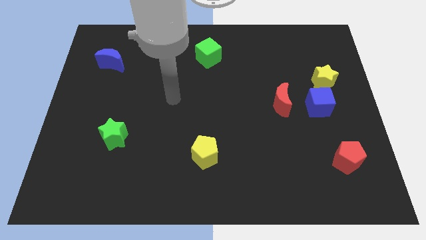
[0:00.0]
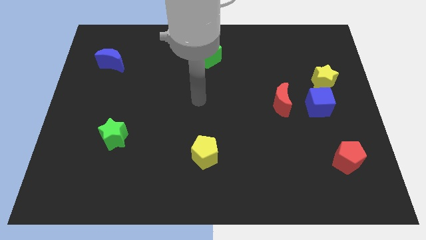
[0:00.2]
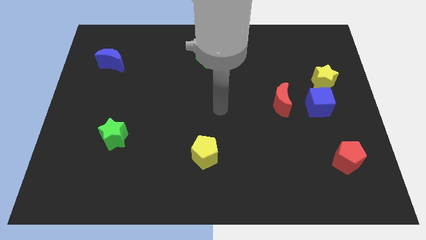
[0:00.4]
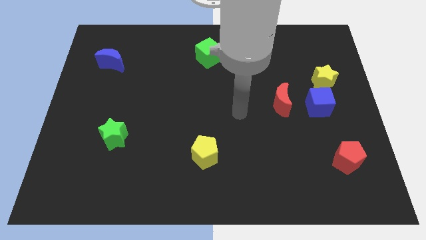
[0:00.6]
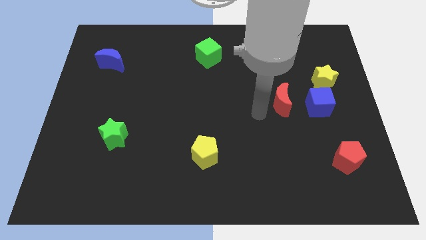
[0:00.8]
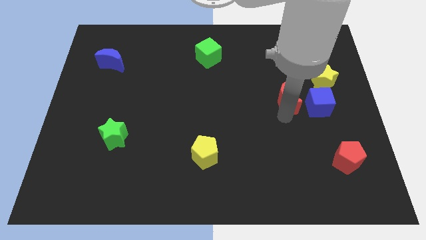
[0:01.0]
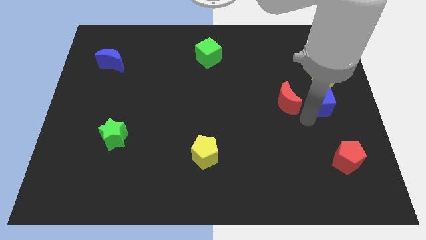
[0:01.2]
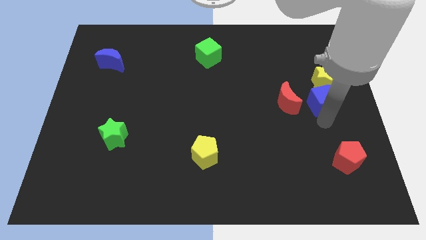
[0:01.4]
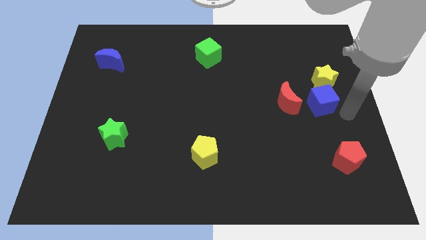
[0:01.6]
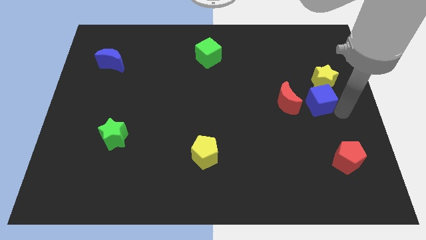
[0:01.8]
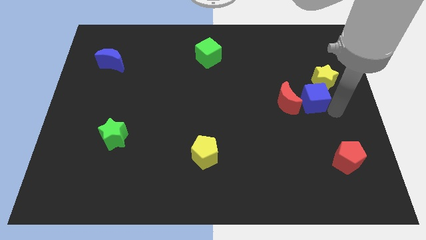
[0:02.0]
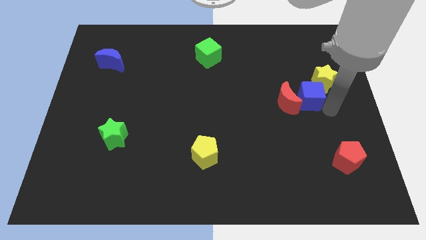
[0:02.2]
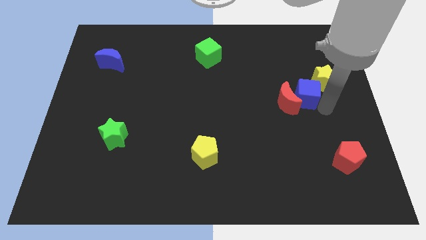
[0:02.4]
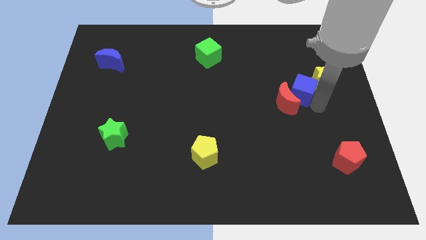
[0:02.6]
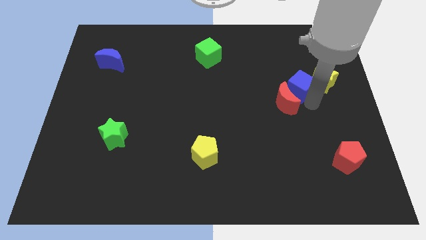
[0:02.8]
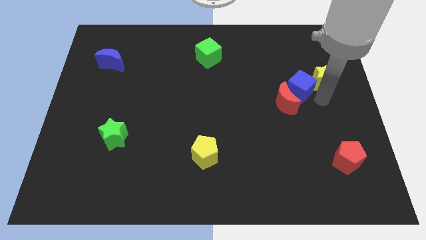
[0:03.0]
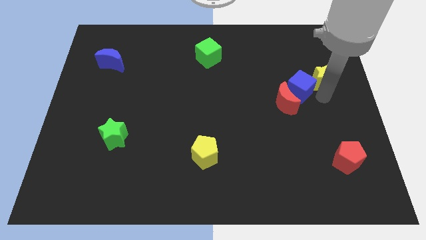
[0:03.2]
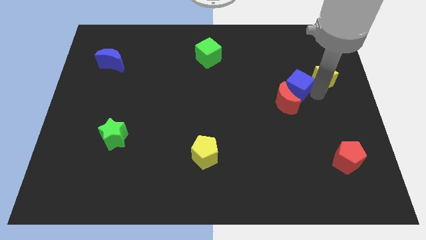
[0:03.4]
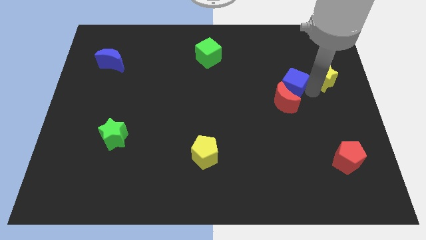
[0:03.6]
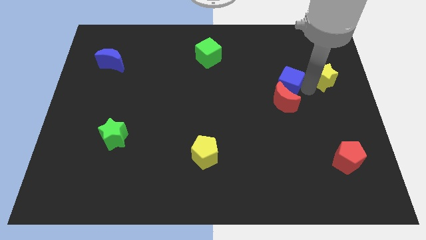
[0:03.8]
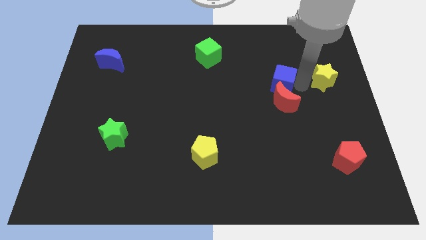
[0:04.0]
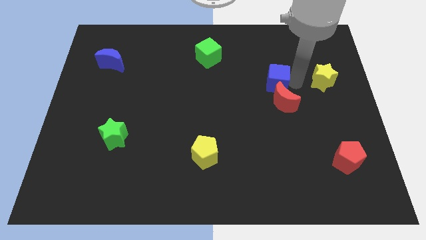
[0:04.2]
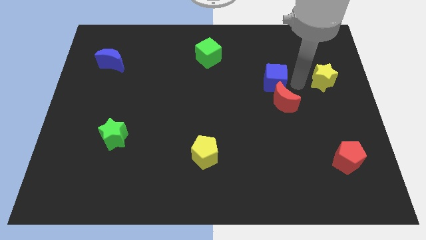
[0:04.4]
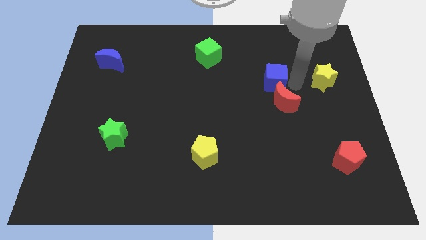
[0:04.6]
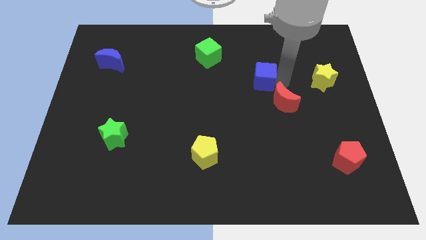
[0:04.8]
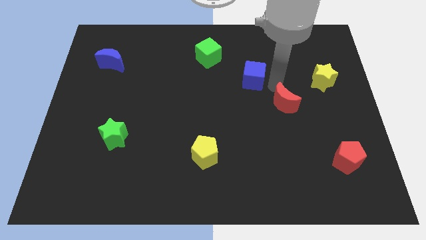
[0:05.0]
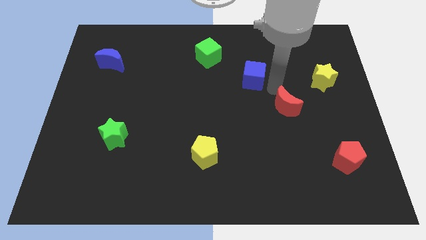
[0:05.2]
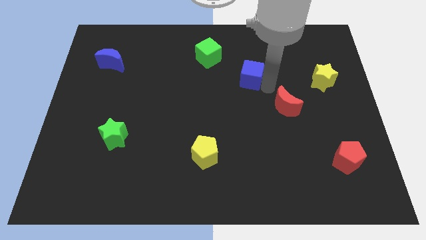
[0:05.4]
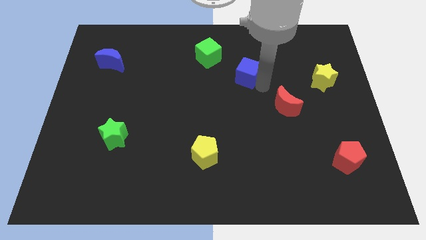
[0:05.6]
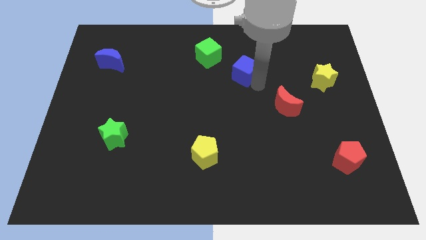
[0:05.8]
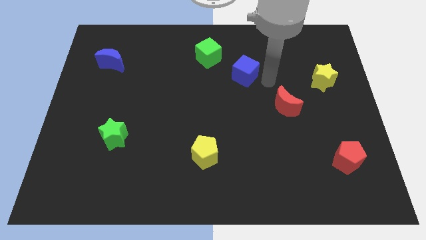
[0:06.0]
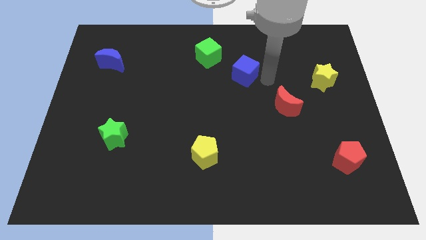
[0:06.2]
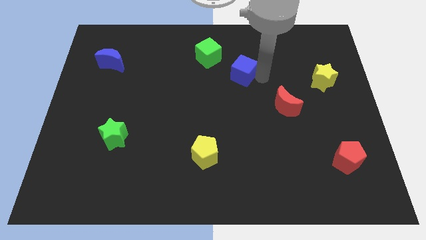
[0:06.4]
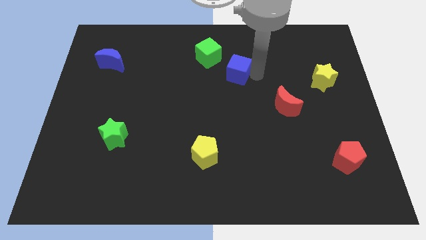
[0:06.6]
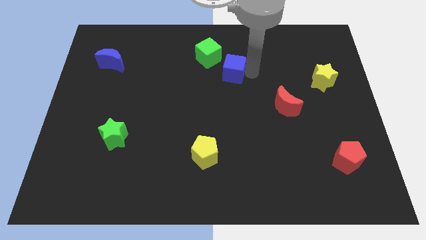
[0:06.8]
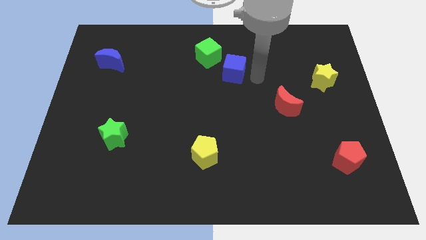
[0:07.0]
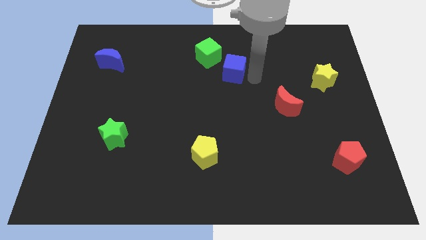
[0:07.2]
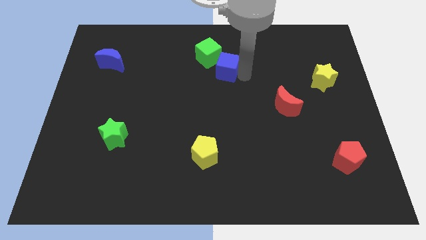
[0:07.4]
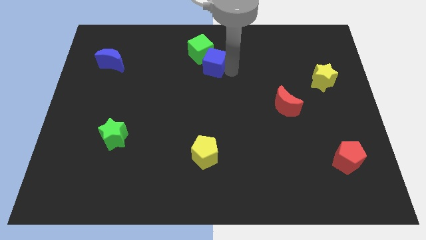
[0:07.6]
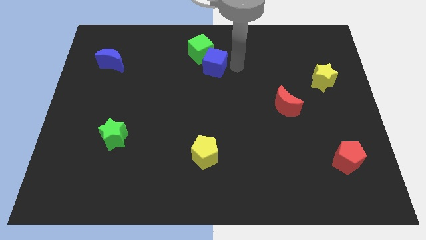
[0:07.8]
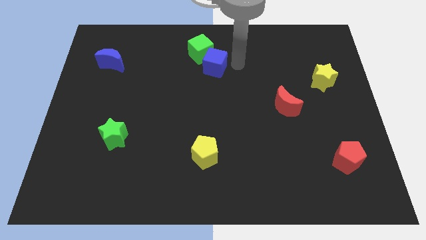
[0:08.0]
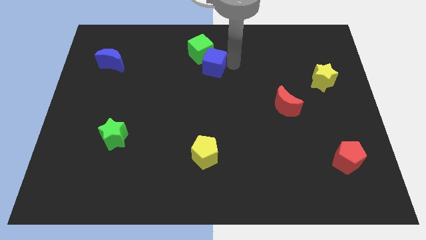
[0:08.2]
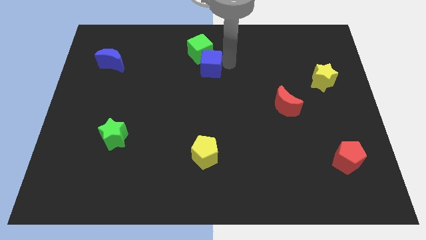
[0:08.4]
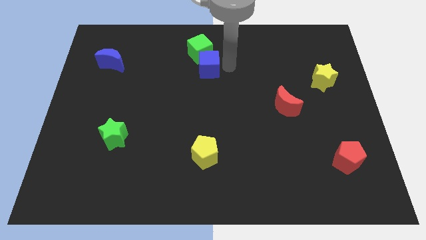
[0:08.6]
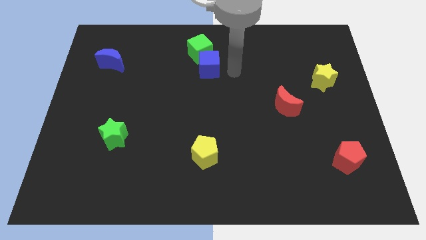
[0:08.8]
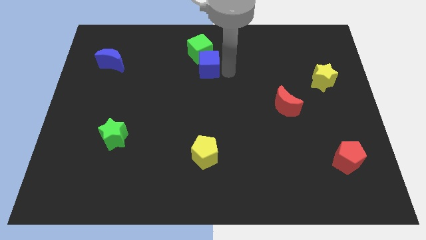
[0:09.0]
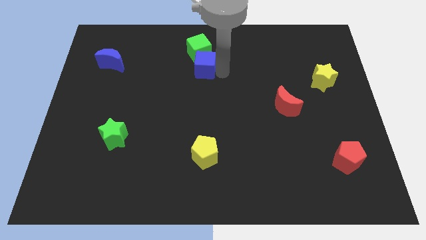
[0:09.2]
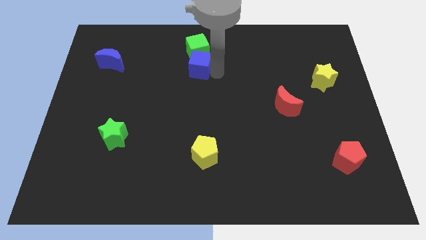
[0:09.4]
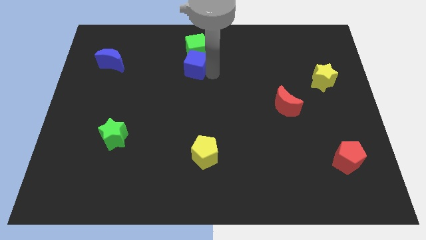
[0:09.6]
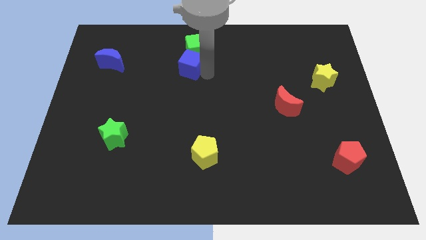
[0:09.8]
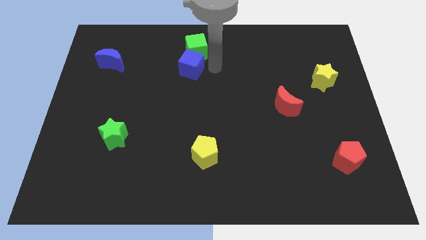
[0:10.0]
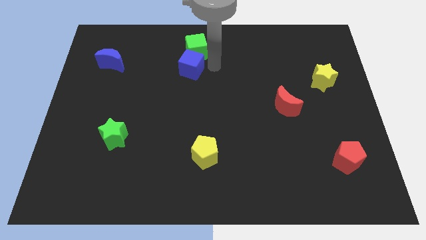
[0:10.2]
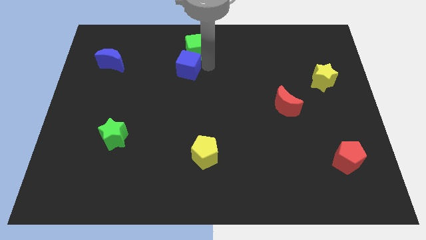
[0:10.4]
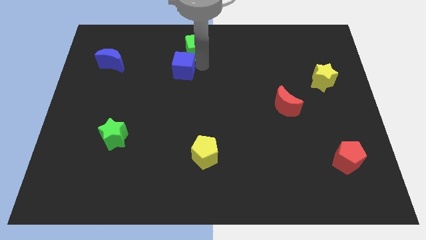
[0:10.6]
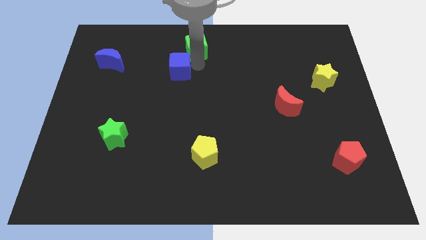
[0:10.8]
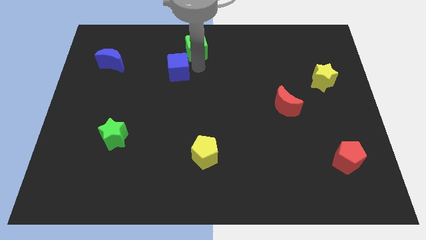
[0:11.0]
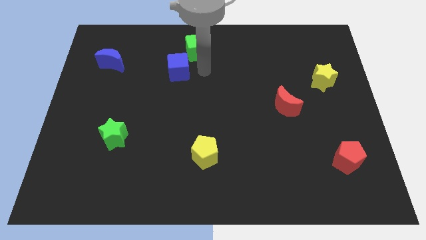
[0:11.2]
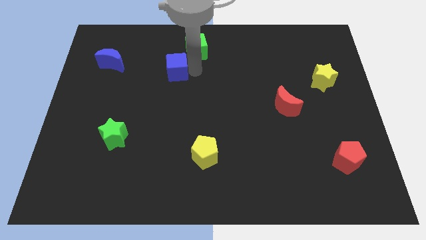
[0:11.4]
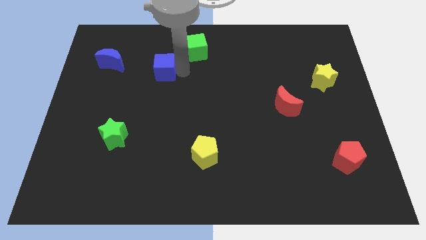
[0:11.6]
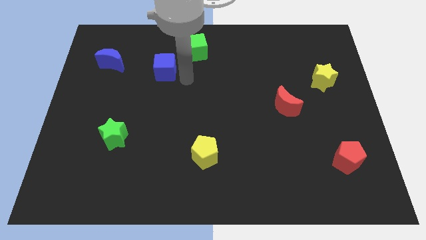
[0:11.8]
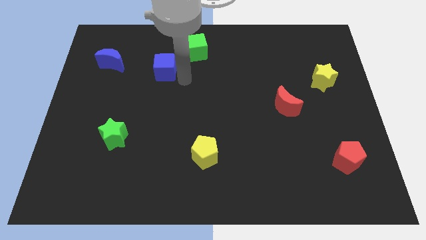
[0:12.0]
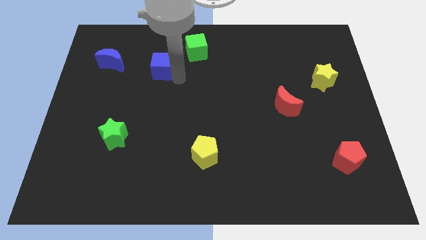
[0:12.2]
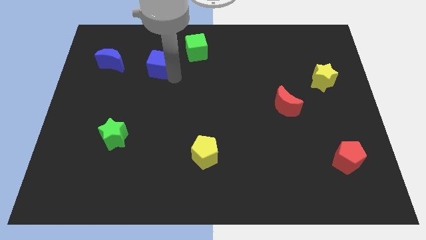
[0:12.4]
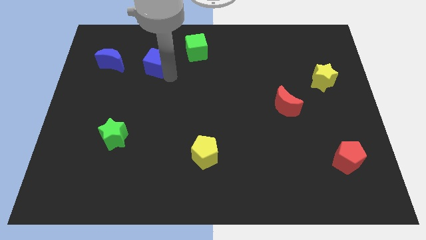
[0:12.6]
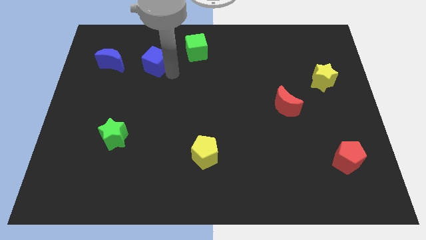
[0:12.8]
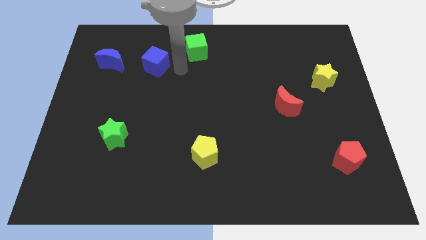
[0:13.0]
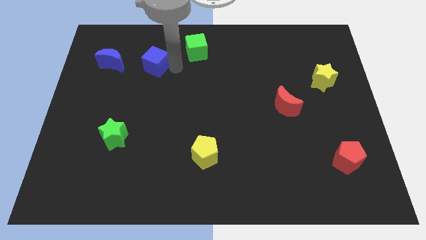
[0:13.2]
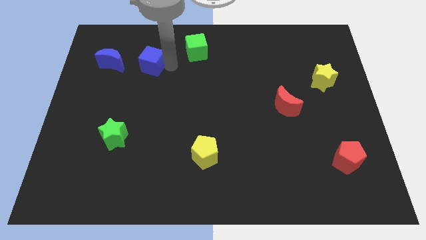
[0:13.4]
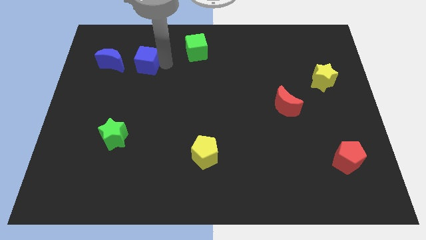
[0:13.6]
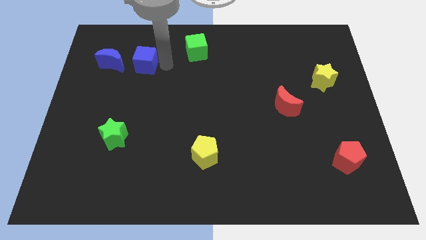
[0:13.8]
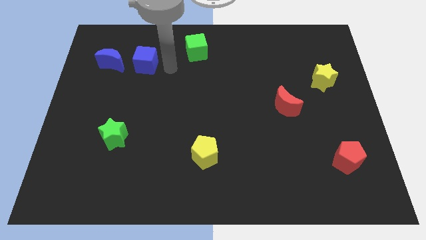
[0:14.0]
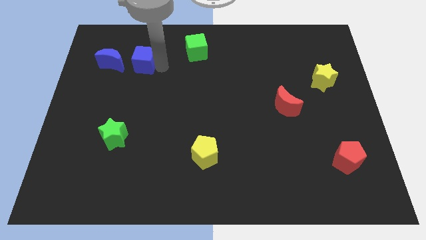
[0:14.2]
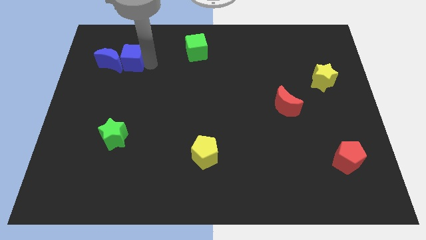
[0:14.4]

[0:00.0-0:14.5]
slide the blue cube next to the blue moon

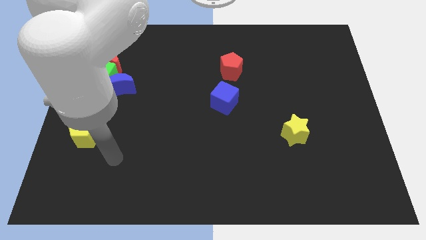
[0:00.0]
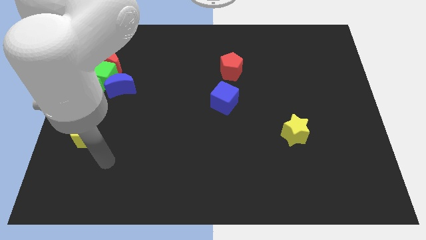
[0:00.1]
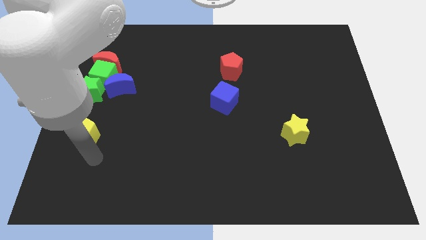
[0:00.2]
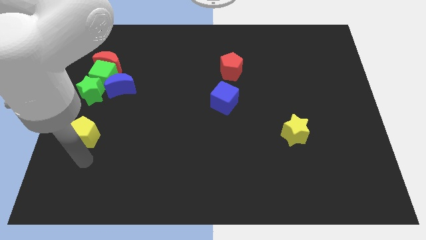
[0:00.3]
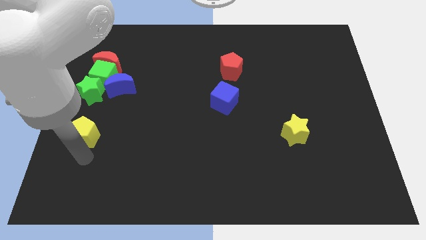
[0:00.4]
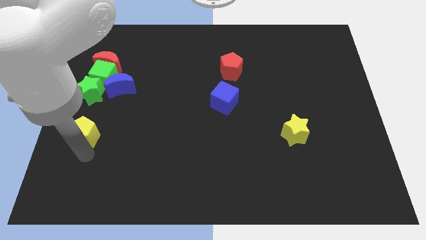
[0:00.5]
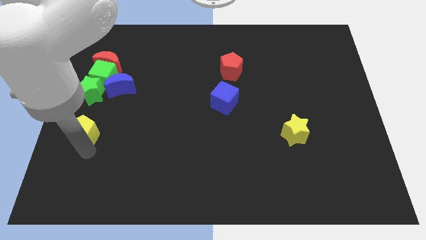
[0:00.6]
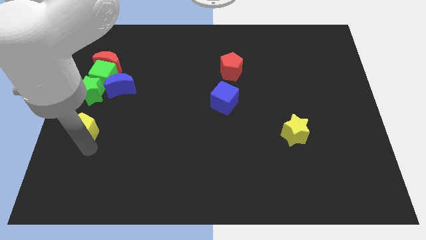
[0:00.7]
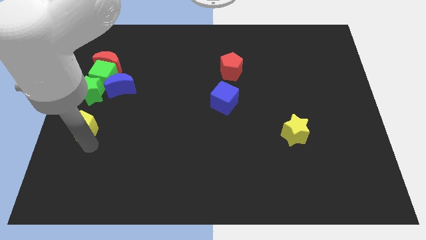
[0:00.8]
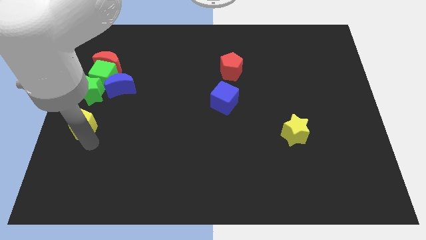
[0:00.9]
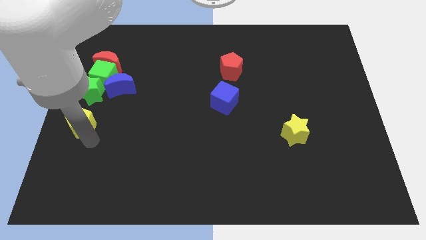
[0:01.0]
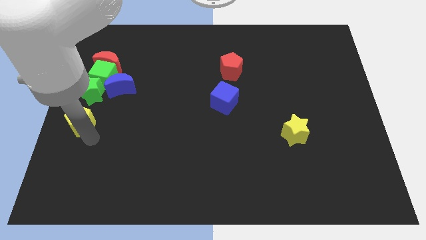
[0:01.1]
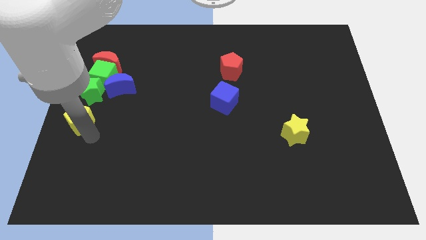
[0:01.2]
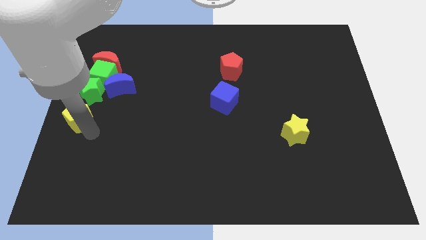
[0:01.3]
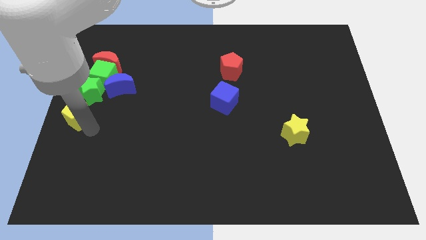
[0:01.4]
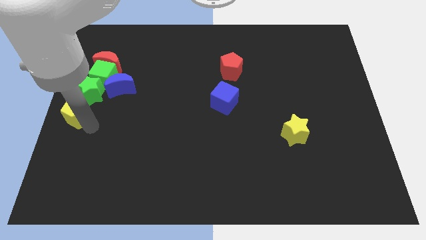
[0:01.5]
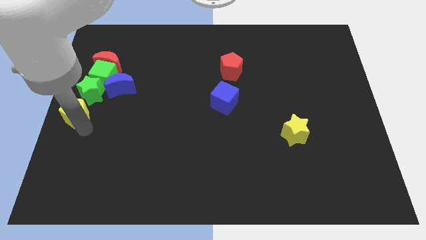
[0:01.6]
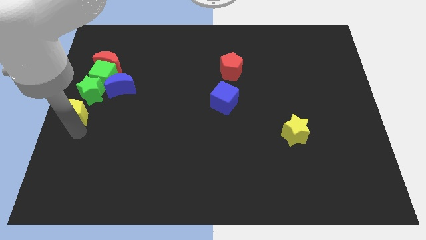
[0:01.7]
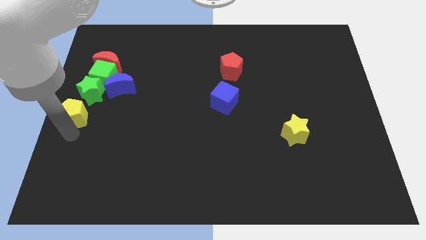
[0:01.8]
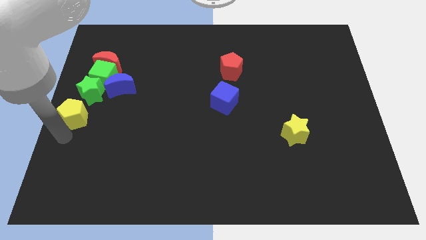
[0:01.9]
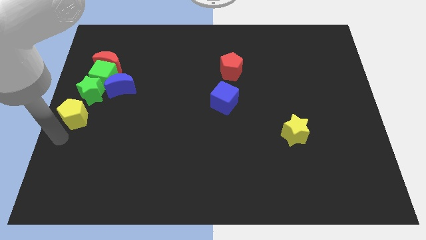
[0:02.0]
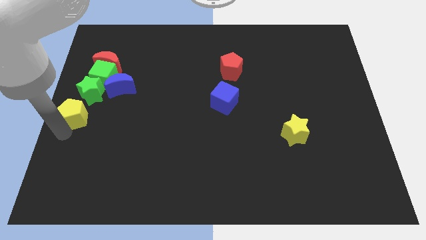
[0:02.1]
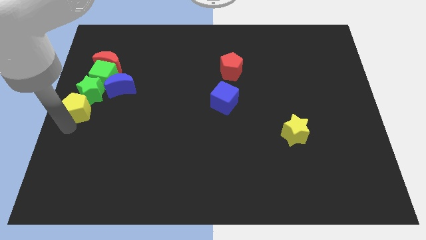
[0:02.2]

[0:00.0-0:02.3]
push the yellow pentagon next to the green star
